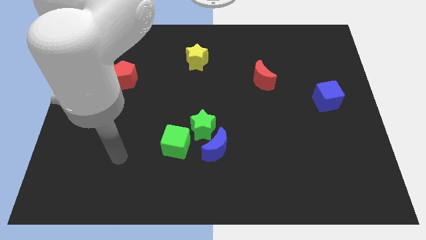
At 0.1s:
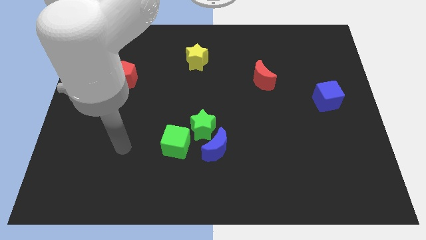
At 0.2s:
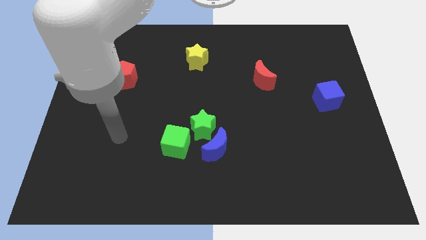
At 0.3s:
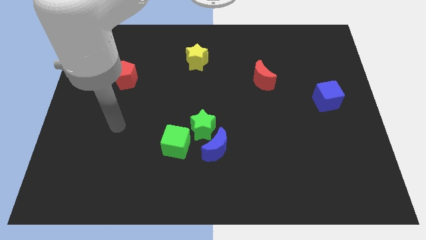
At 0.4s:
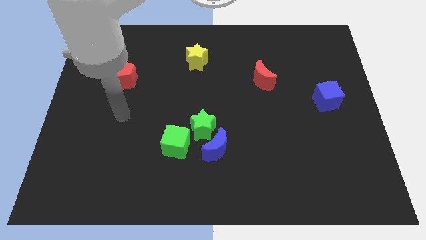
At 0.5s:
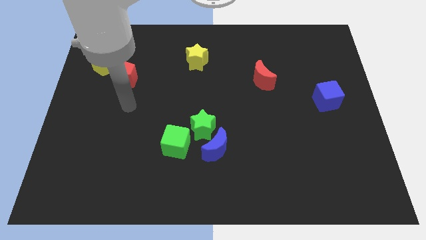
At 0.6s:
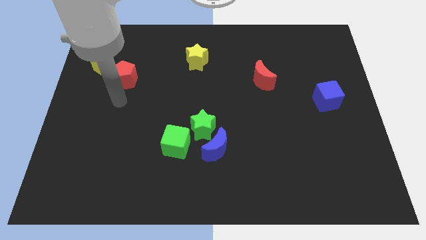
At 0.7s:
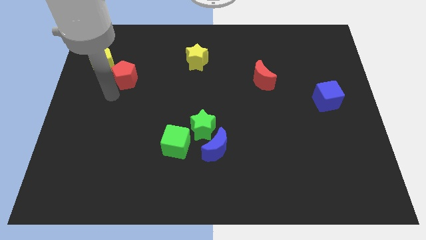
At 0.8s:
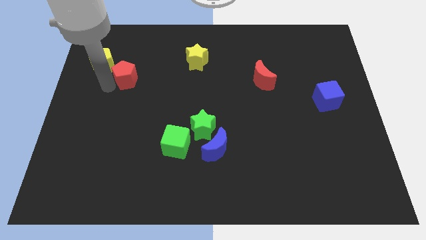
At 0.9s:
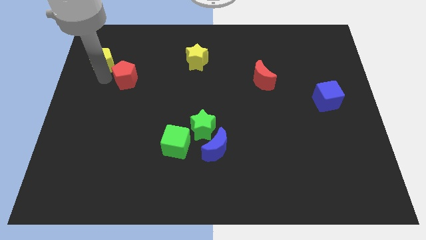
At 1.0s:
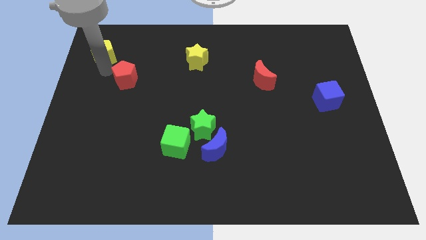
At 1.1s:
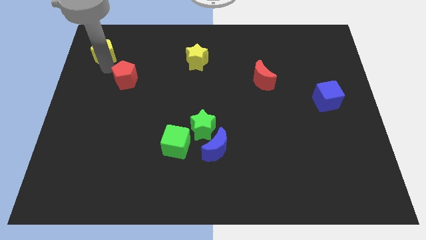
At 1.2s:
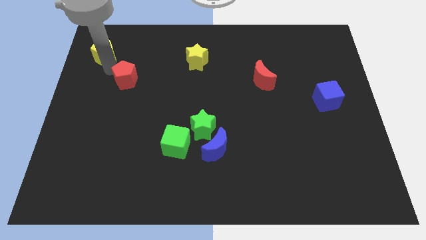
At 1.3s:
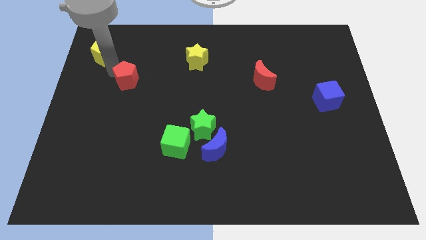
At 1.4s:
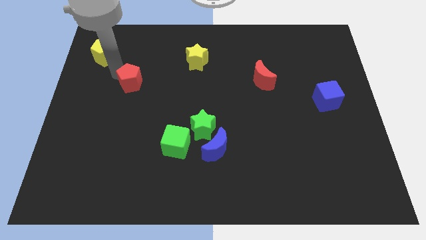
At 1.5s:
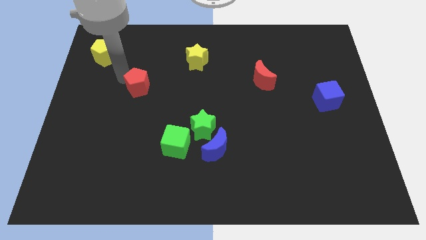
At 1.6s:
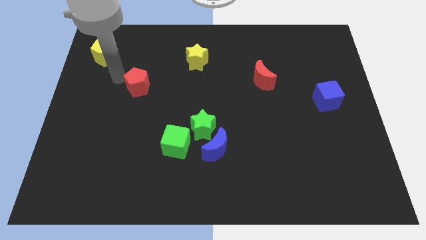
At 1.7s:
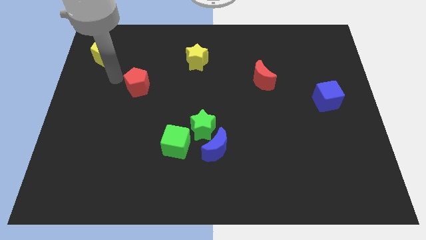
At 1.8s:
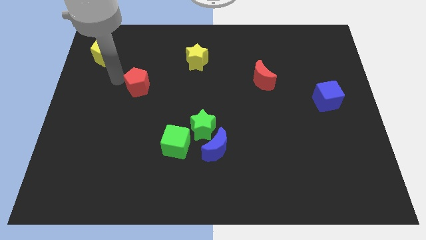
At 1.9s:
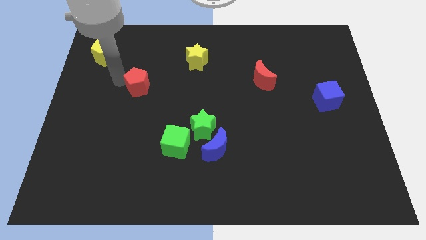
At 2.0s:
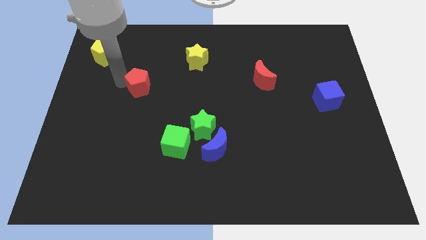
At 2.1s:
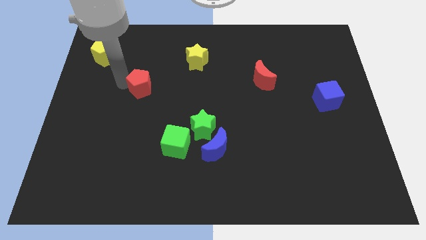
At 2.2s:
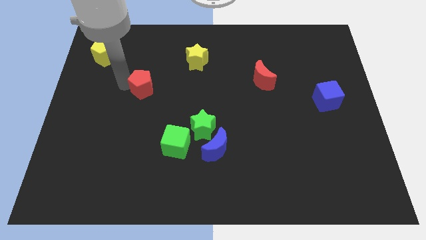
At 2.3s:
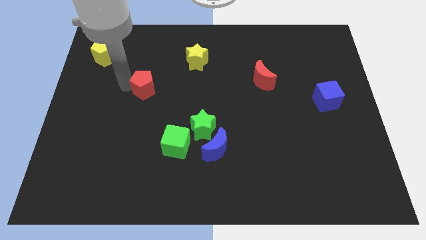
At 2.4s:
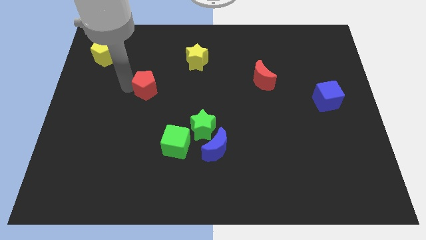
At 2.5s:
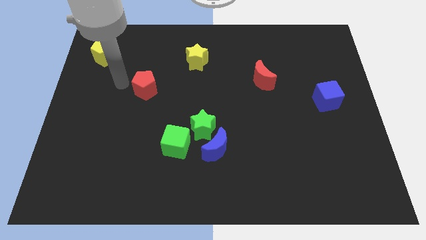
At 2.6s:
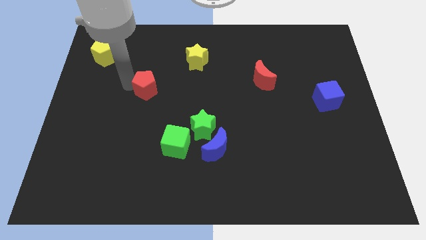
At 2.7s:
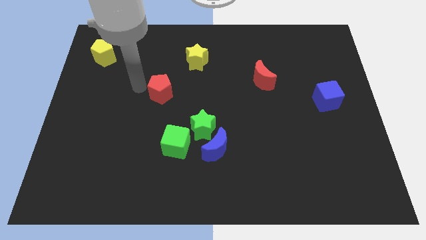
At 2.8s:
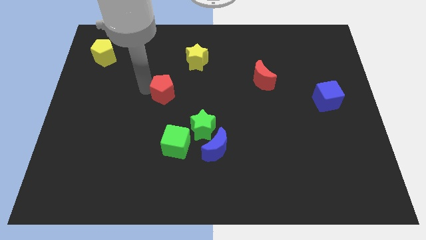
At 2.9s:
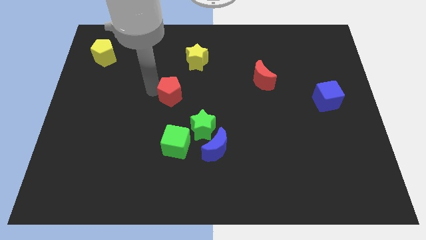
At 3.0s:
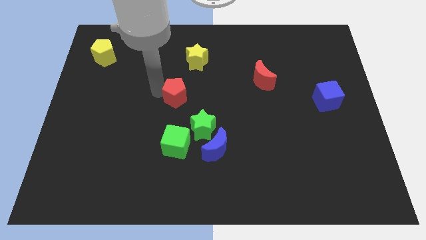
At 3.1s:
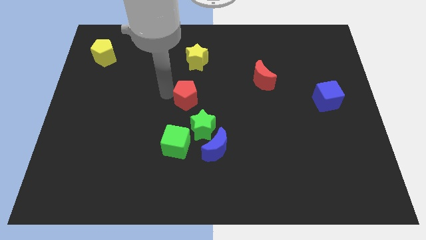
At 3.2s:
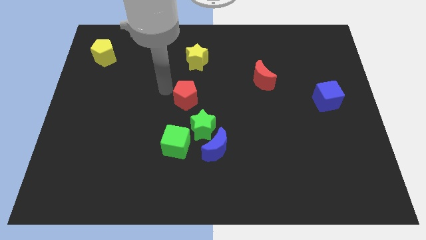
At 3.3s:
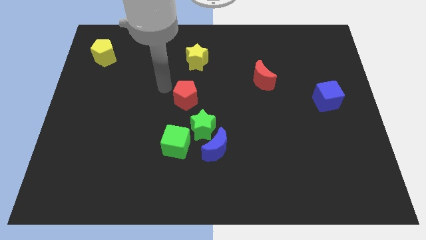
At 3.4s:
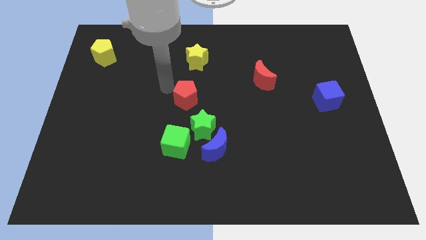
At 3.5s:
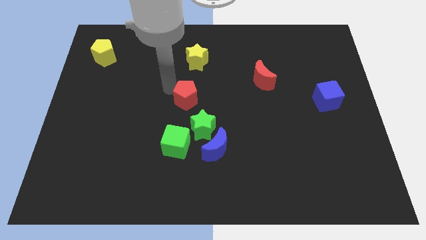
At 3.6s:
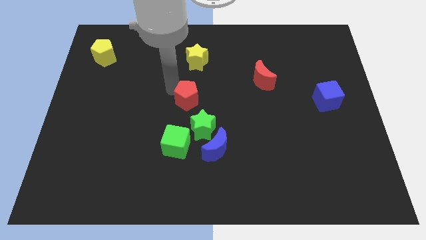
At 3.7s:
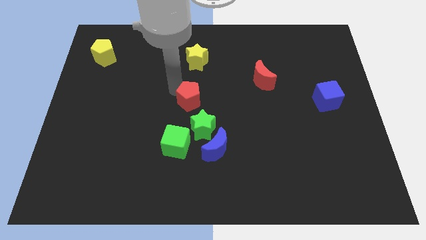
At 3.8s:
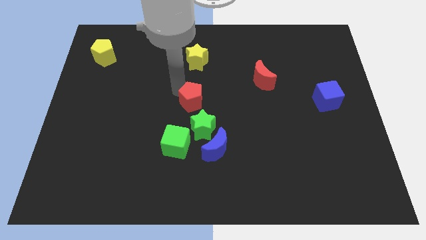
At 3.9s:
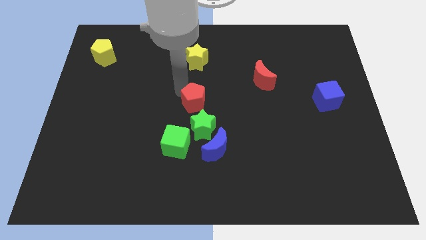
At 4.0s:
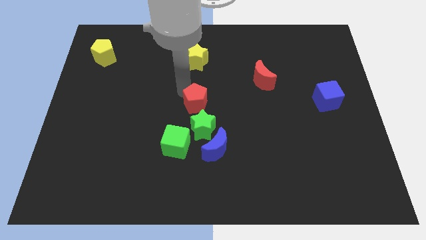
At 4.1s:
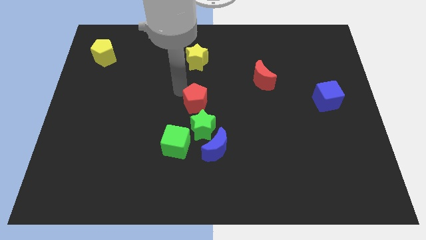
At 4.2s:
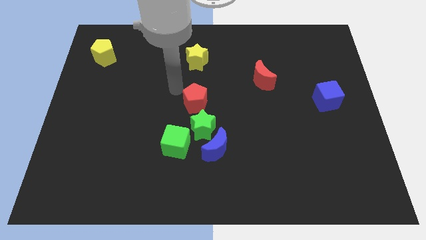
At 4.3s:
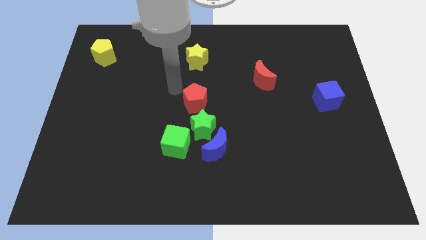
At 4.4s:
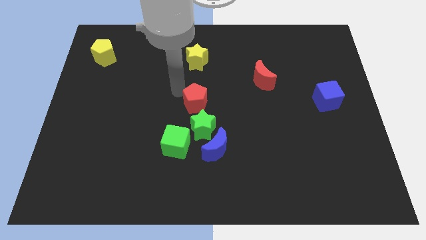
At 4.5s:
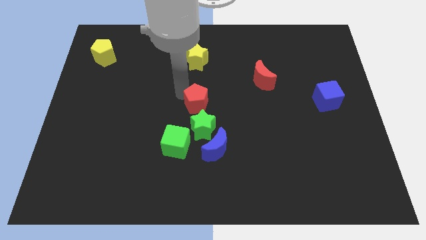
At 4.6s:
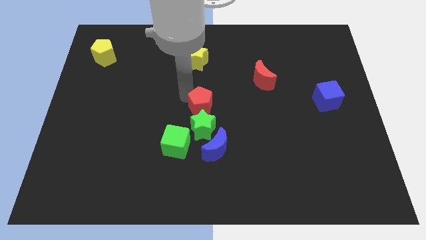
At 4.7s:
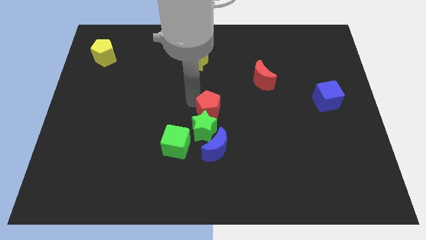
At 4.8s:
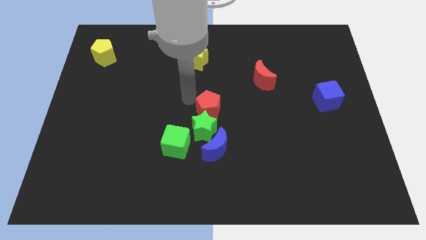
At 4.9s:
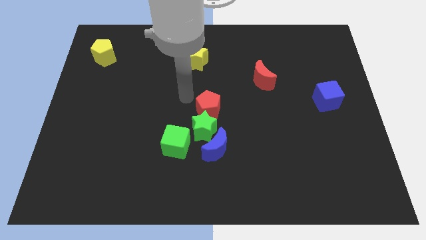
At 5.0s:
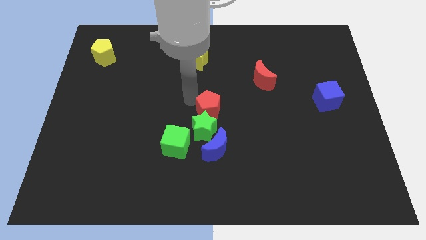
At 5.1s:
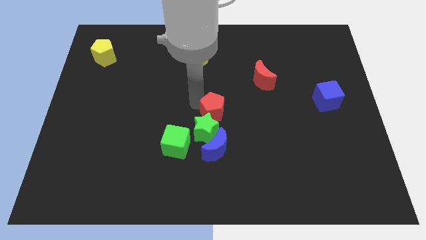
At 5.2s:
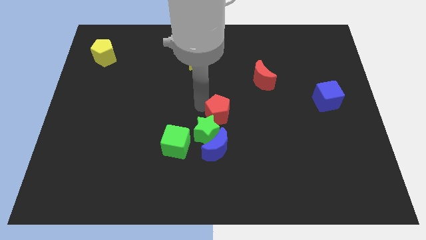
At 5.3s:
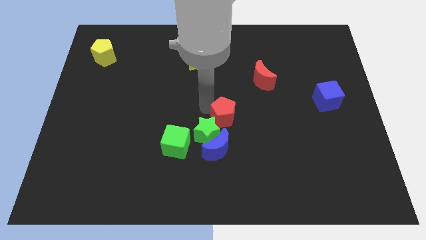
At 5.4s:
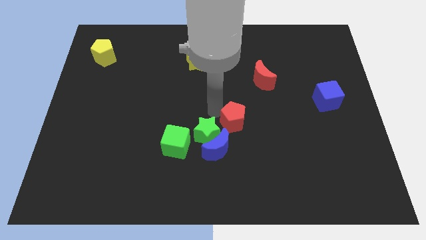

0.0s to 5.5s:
slide the red pentagon just right of the green star

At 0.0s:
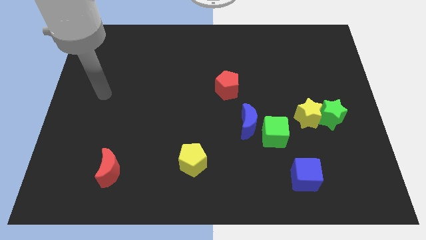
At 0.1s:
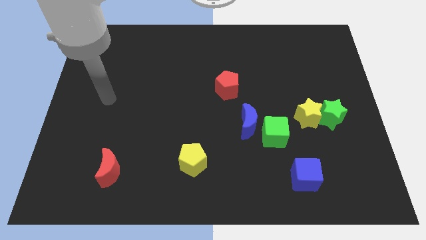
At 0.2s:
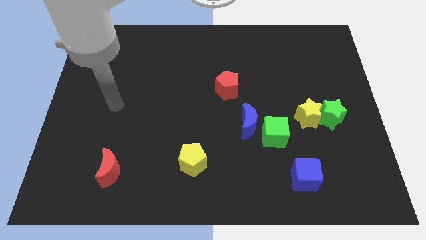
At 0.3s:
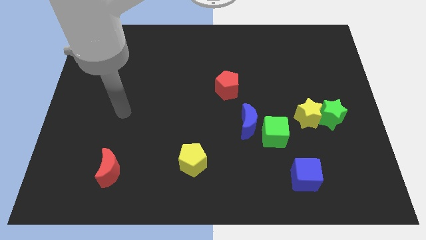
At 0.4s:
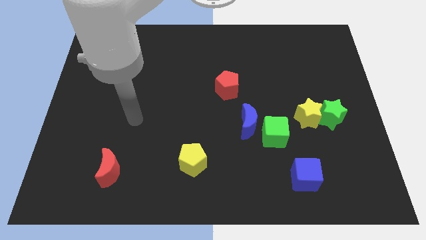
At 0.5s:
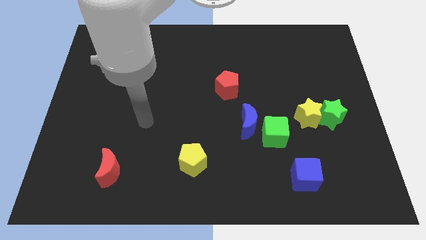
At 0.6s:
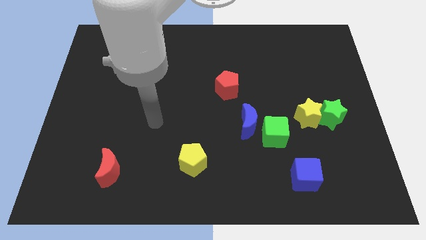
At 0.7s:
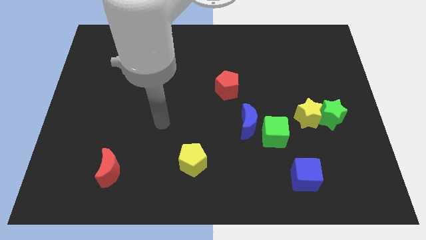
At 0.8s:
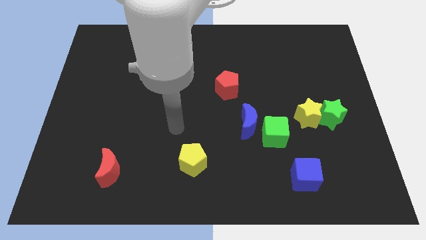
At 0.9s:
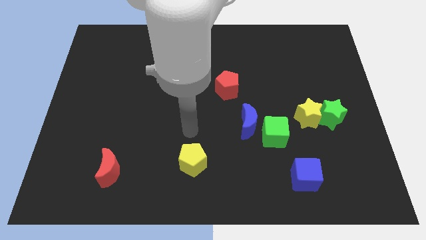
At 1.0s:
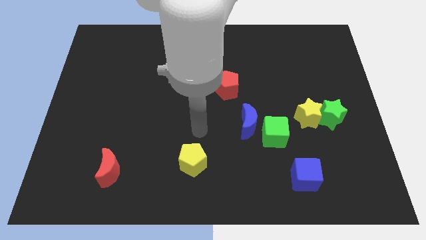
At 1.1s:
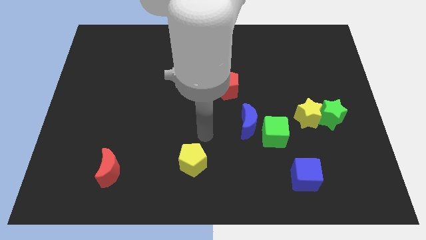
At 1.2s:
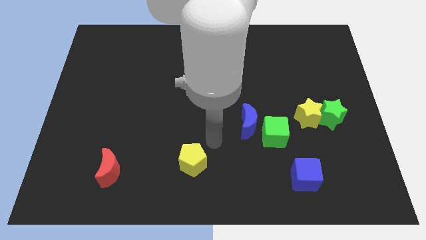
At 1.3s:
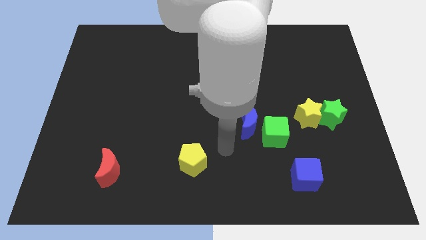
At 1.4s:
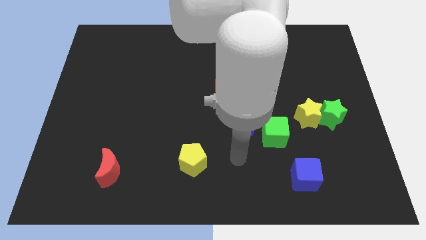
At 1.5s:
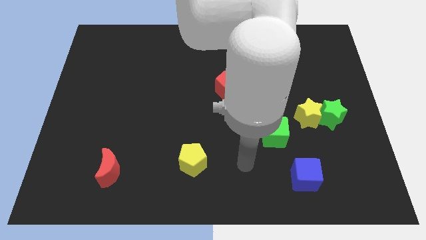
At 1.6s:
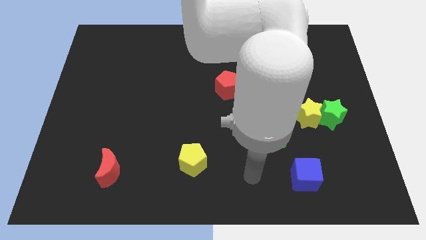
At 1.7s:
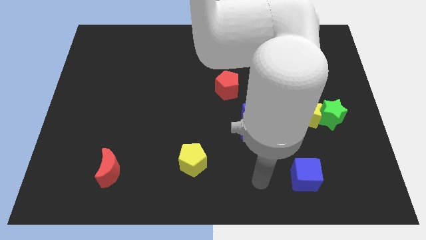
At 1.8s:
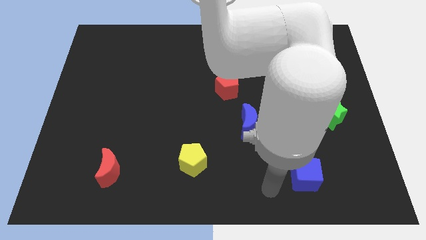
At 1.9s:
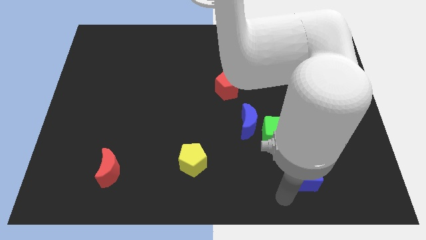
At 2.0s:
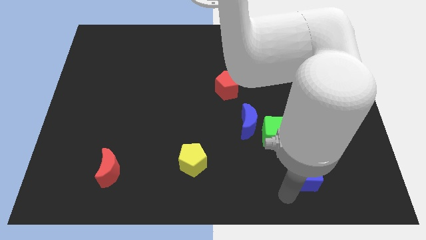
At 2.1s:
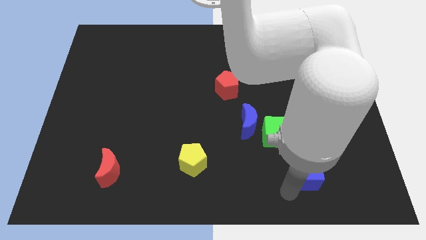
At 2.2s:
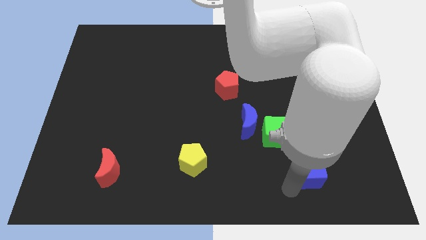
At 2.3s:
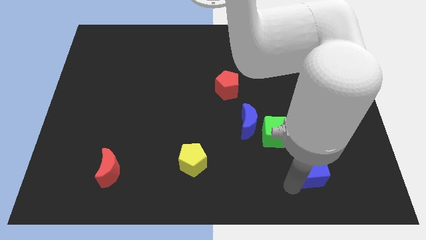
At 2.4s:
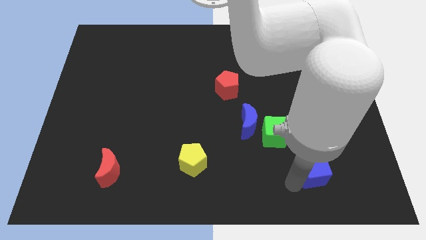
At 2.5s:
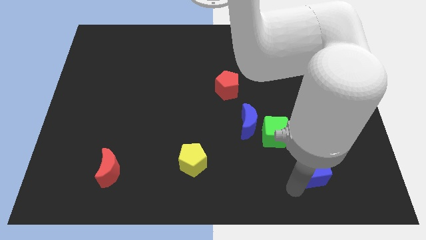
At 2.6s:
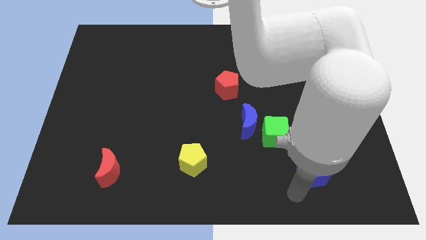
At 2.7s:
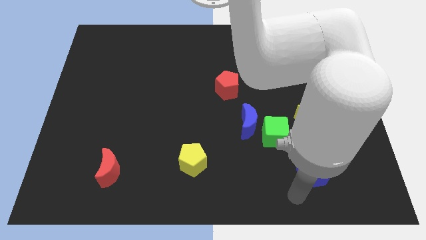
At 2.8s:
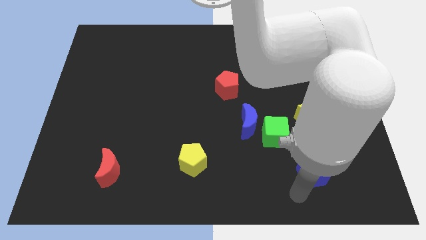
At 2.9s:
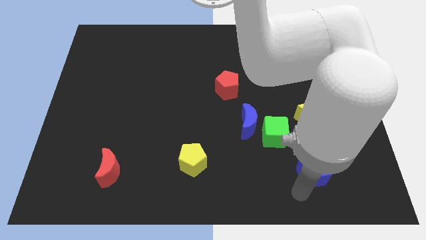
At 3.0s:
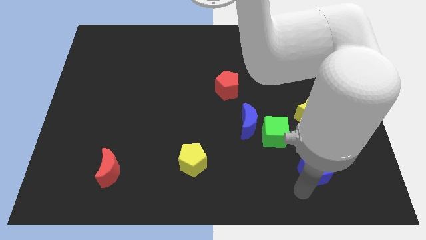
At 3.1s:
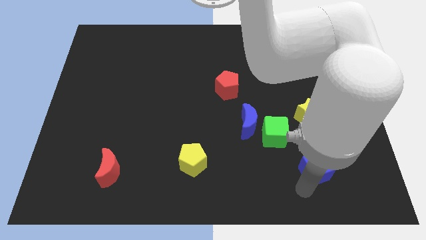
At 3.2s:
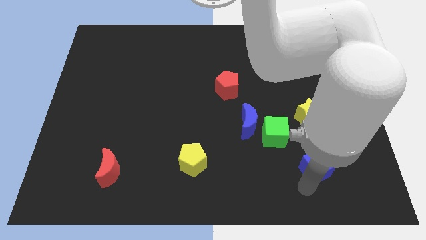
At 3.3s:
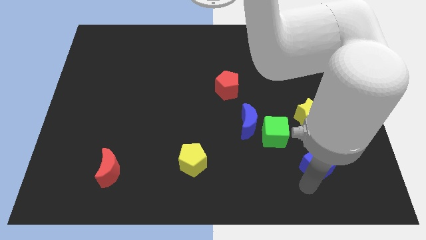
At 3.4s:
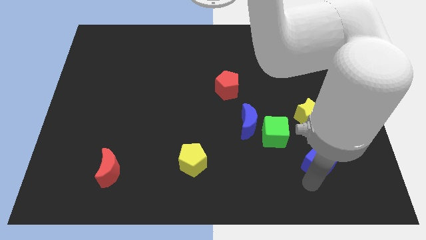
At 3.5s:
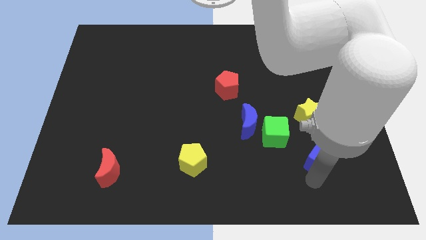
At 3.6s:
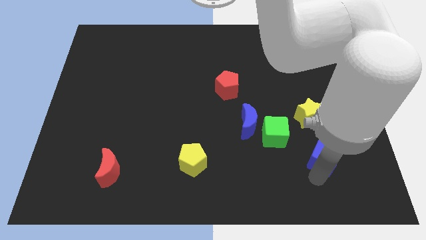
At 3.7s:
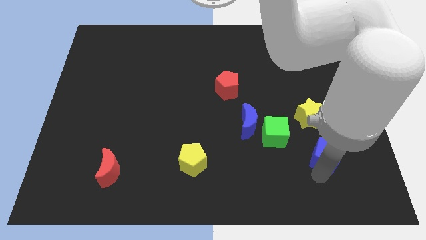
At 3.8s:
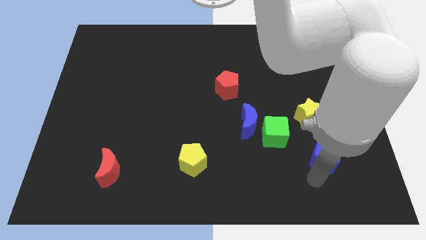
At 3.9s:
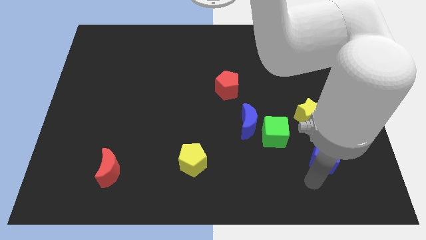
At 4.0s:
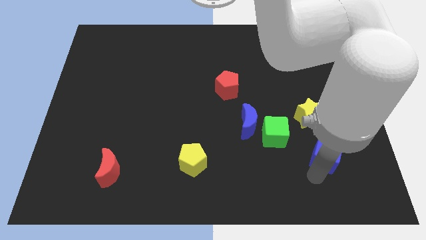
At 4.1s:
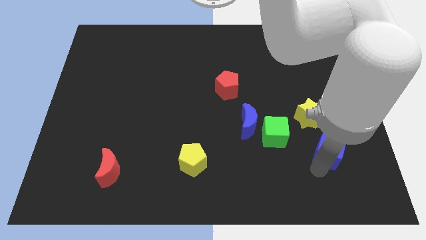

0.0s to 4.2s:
push the blue cube to the bottom right of the yellow star
